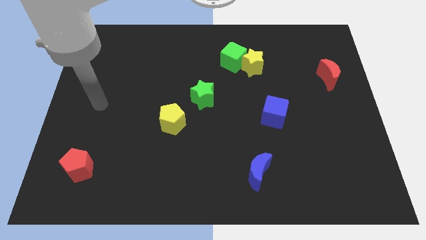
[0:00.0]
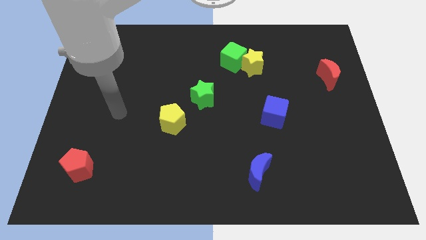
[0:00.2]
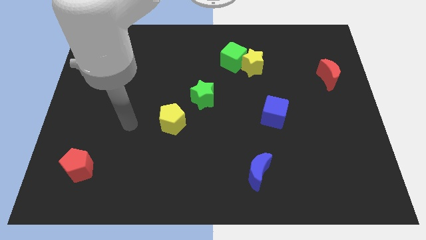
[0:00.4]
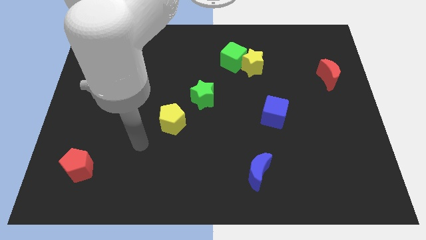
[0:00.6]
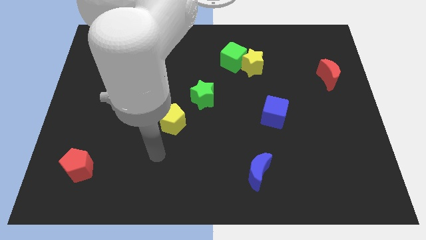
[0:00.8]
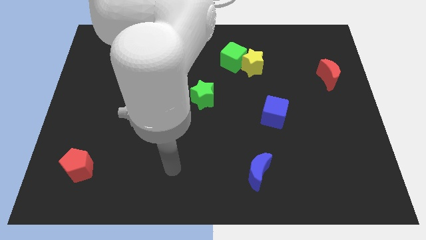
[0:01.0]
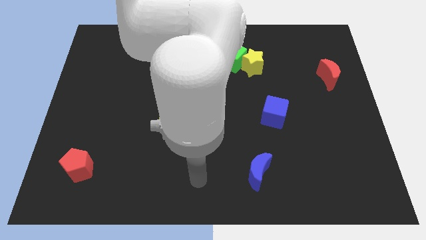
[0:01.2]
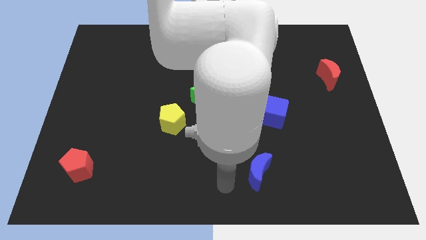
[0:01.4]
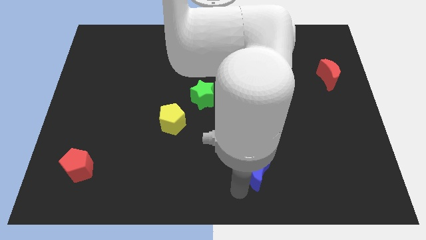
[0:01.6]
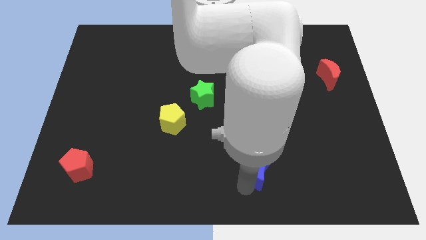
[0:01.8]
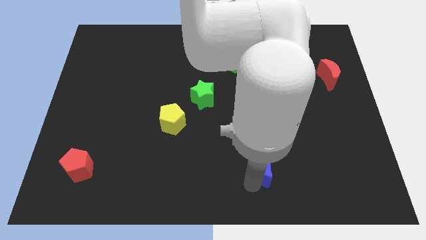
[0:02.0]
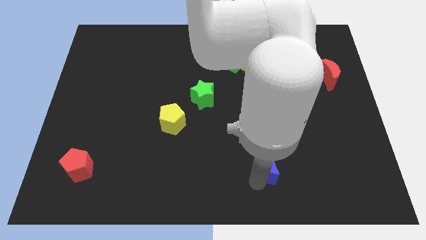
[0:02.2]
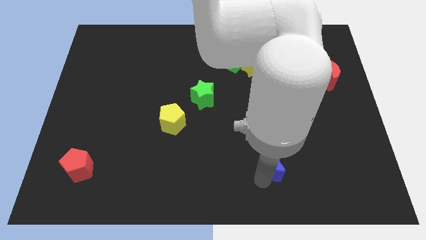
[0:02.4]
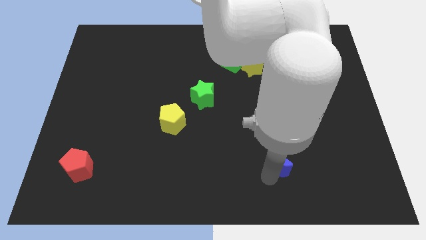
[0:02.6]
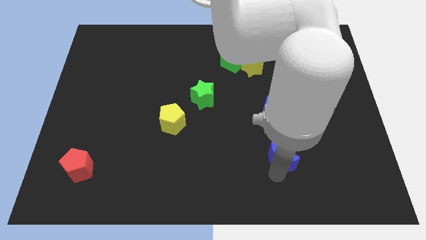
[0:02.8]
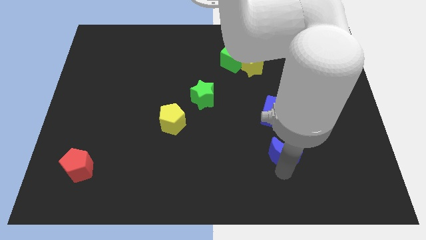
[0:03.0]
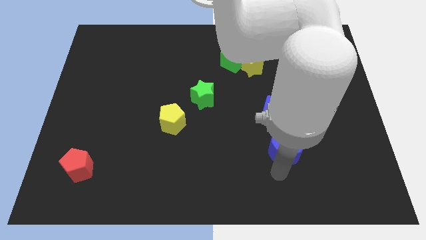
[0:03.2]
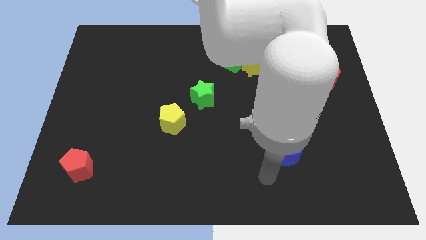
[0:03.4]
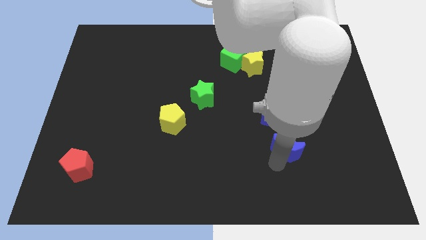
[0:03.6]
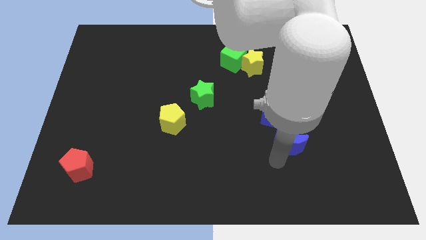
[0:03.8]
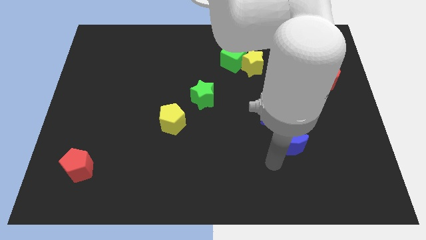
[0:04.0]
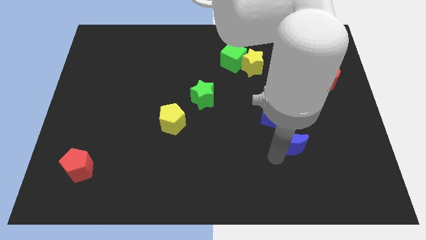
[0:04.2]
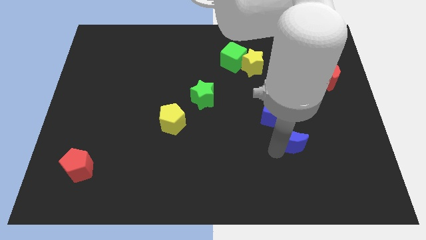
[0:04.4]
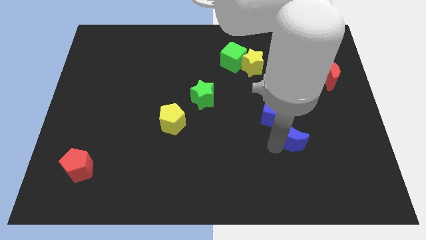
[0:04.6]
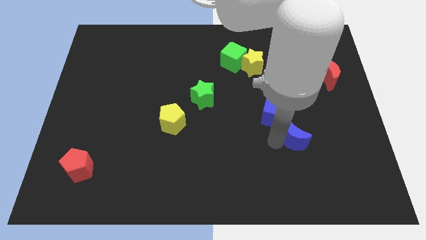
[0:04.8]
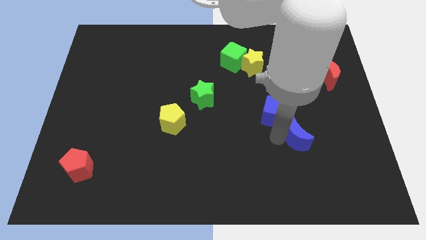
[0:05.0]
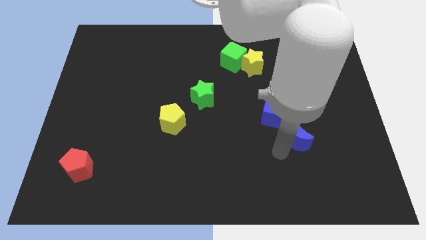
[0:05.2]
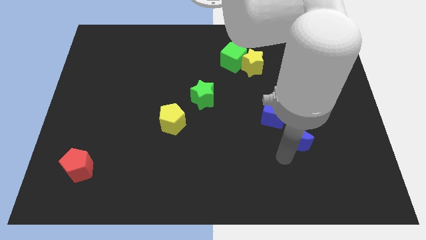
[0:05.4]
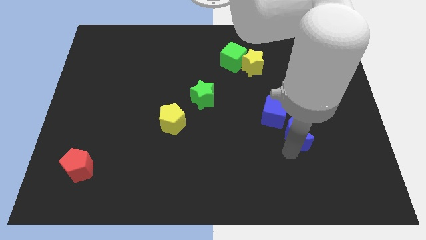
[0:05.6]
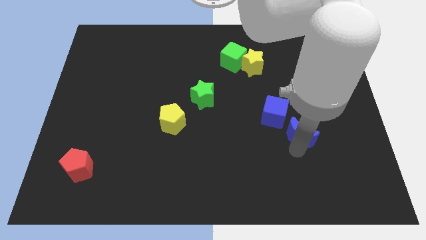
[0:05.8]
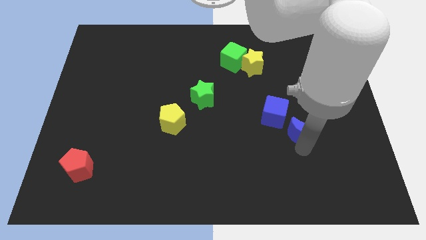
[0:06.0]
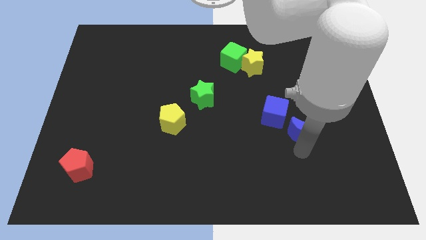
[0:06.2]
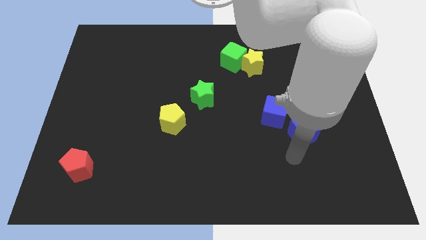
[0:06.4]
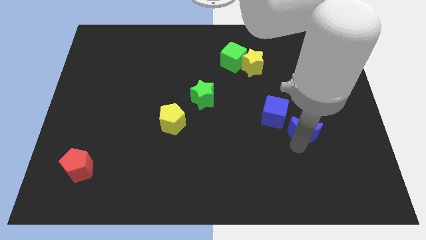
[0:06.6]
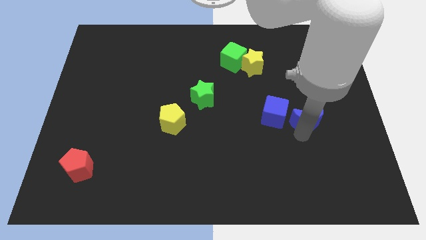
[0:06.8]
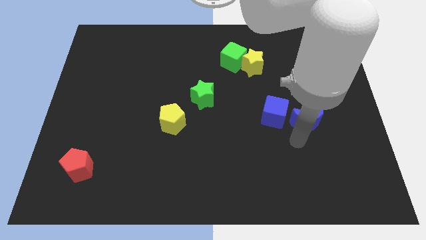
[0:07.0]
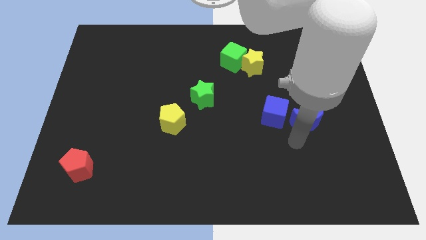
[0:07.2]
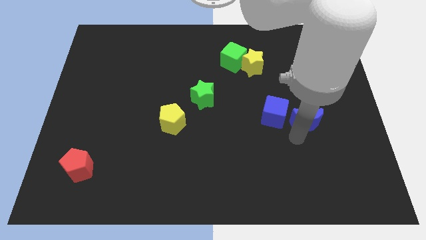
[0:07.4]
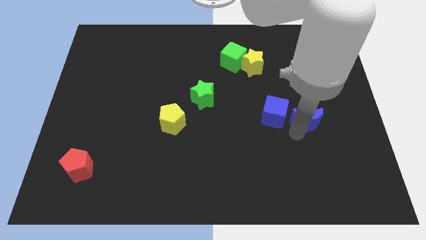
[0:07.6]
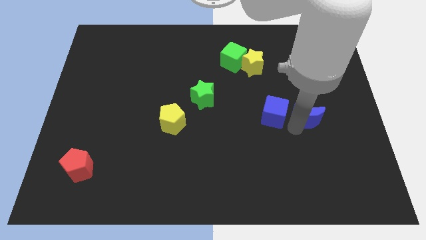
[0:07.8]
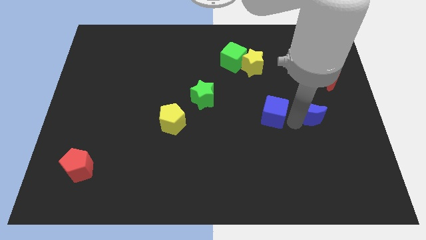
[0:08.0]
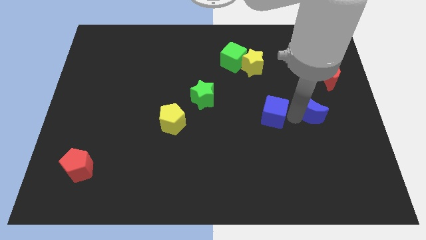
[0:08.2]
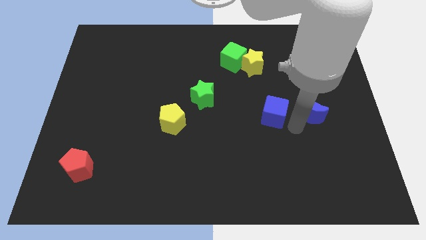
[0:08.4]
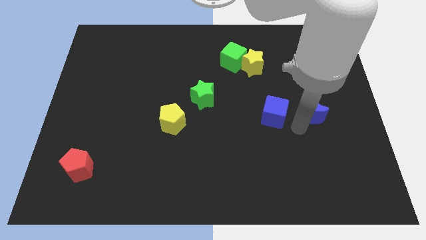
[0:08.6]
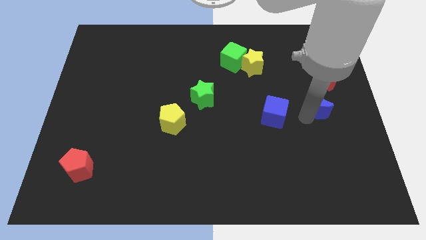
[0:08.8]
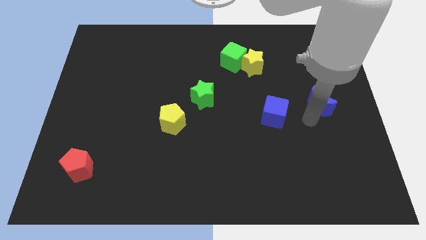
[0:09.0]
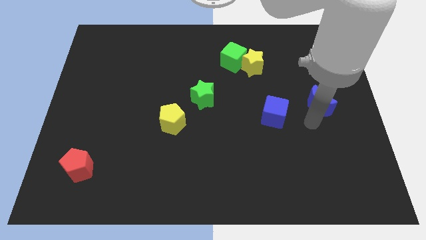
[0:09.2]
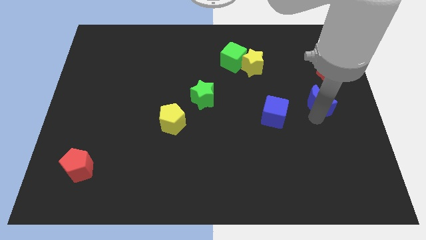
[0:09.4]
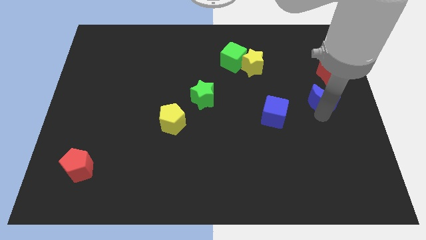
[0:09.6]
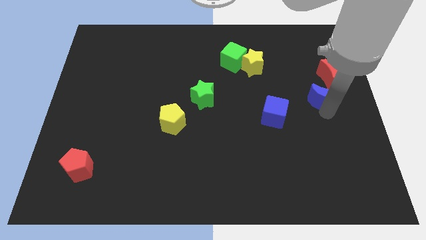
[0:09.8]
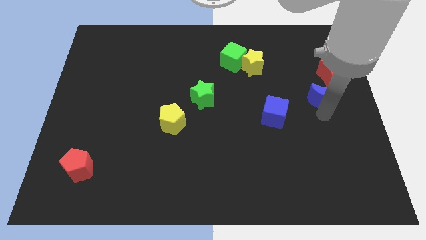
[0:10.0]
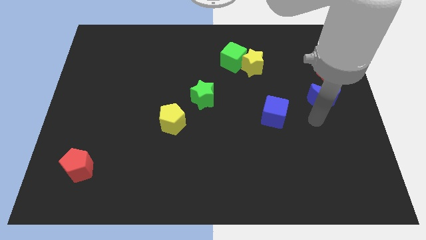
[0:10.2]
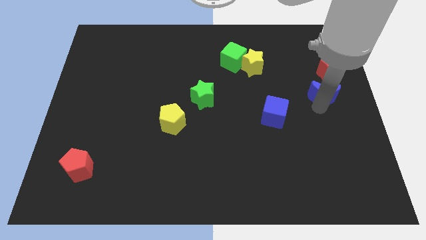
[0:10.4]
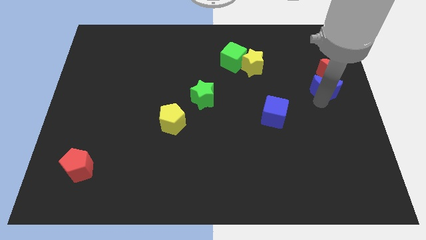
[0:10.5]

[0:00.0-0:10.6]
move the blue moon next to the red moon

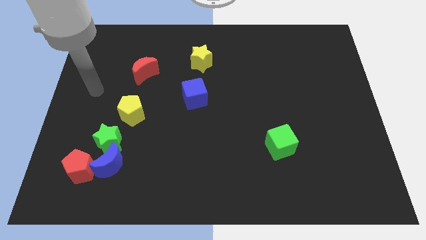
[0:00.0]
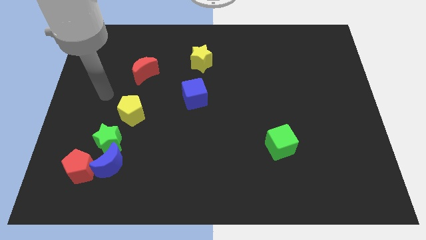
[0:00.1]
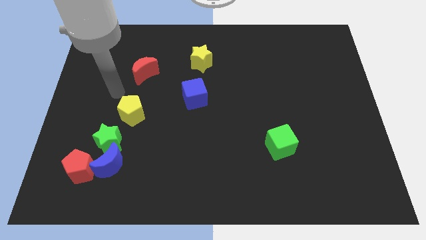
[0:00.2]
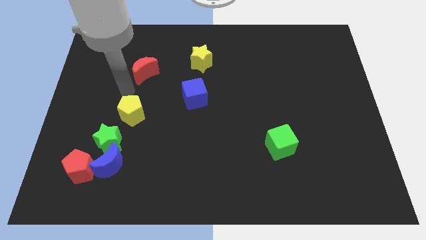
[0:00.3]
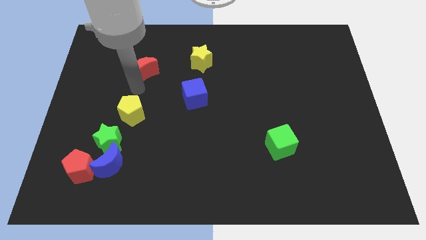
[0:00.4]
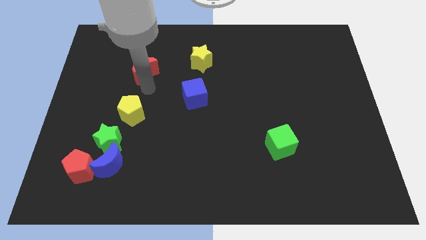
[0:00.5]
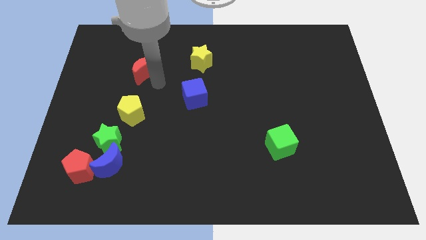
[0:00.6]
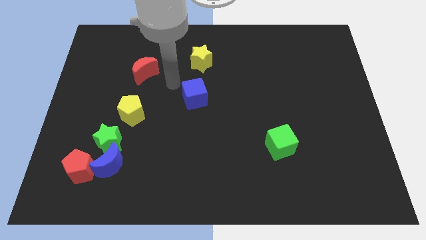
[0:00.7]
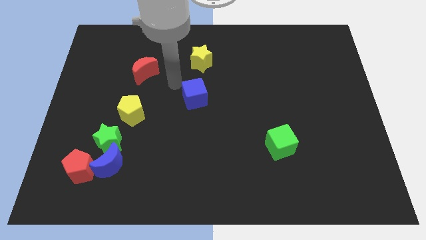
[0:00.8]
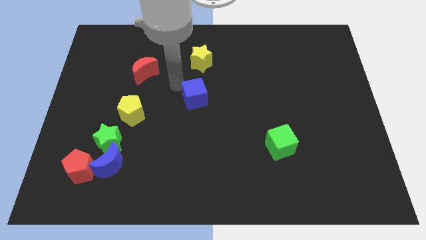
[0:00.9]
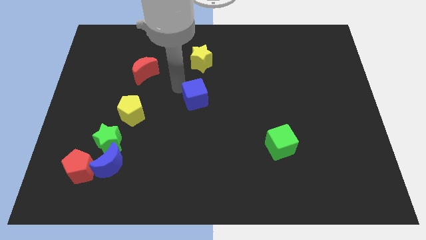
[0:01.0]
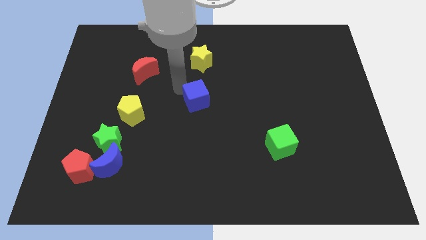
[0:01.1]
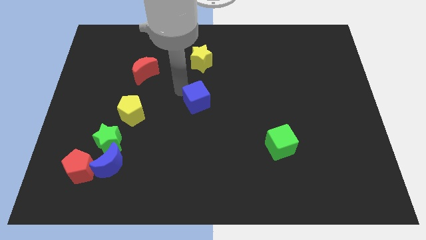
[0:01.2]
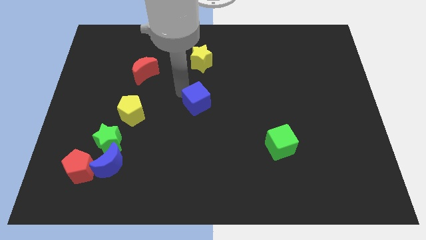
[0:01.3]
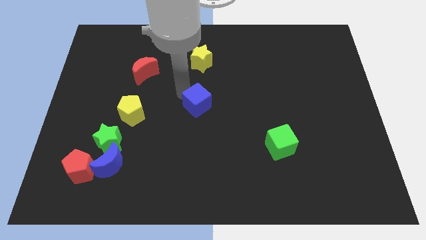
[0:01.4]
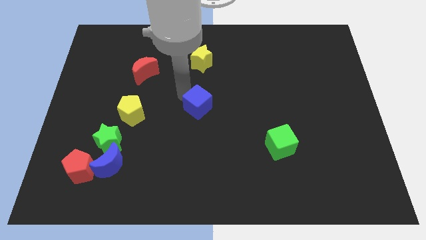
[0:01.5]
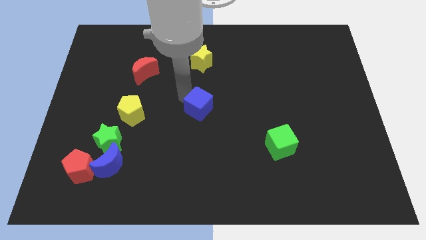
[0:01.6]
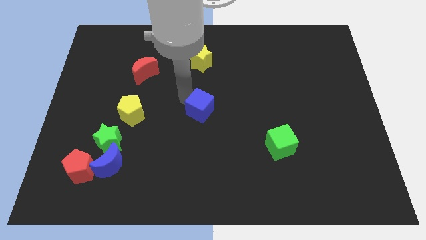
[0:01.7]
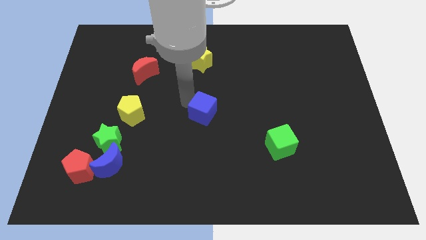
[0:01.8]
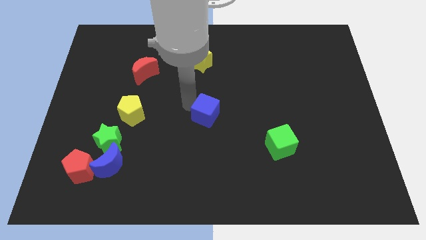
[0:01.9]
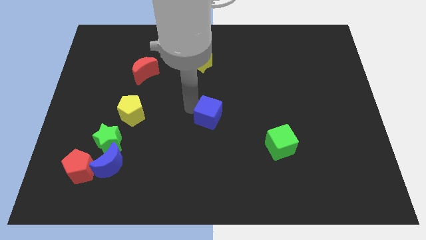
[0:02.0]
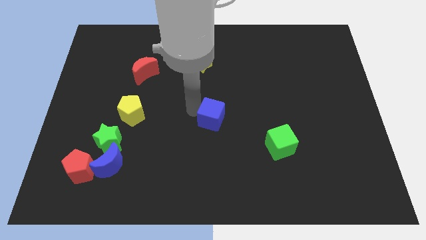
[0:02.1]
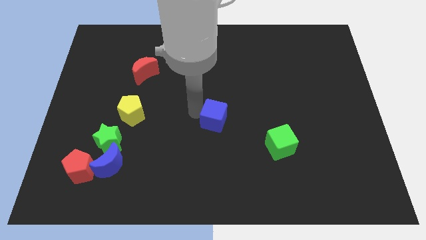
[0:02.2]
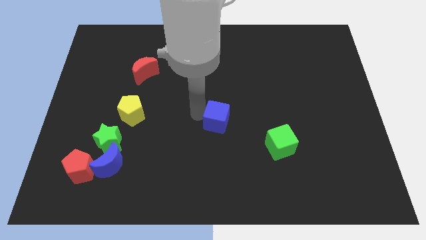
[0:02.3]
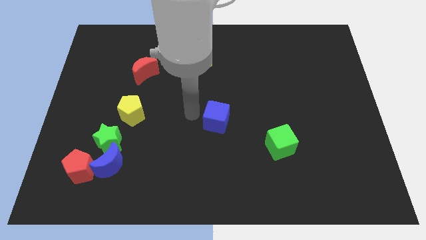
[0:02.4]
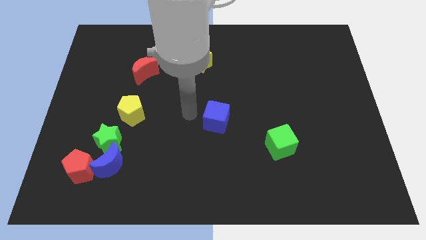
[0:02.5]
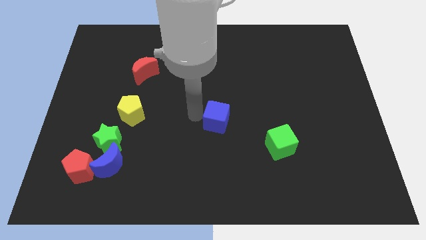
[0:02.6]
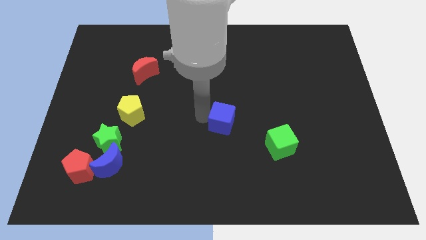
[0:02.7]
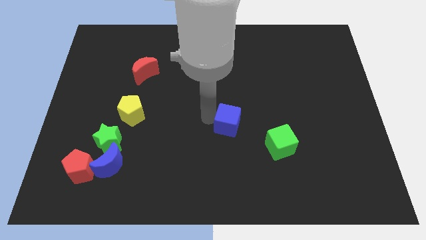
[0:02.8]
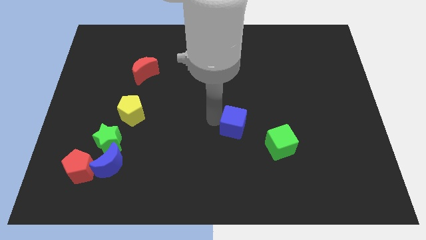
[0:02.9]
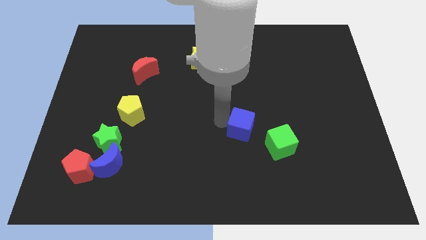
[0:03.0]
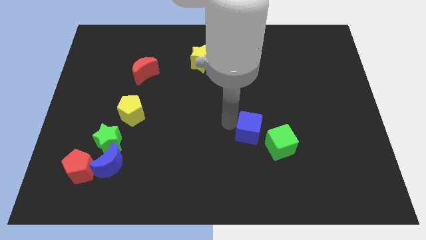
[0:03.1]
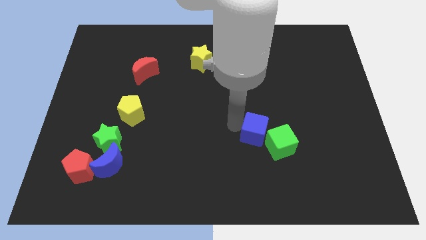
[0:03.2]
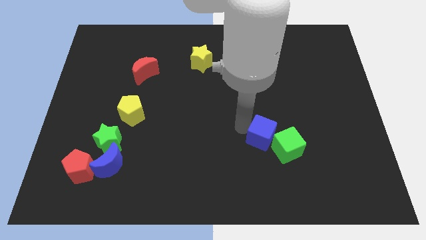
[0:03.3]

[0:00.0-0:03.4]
put the blue cube close to the green cube
